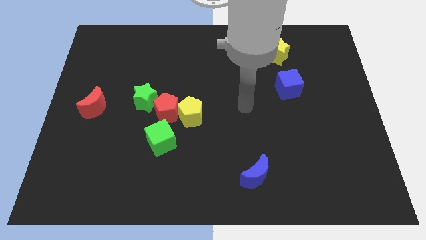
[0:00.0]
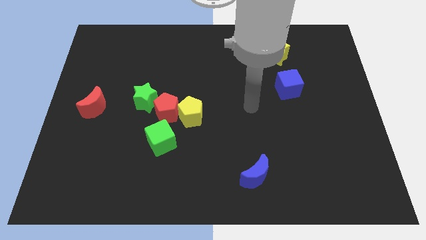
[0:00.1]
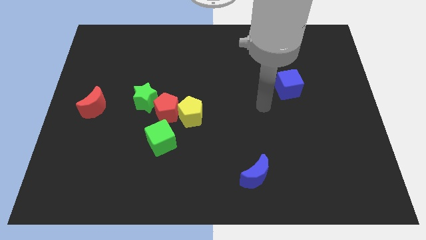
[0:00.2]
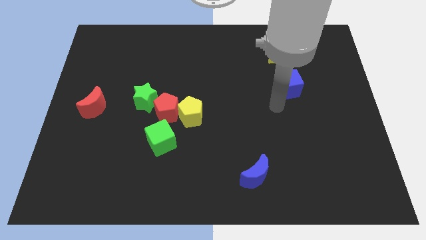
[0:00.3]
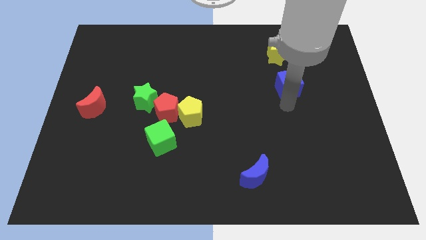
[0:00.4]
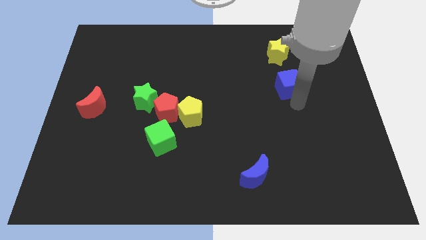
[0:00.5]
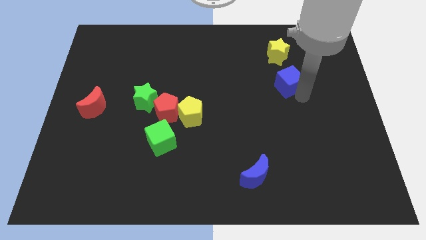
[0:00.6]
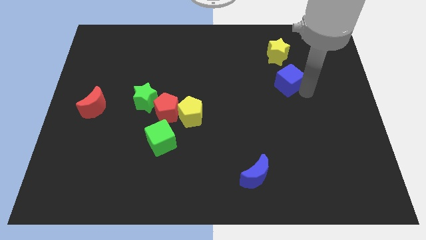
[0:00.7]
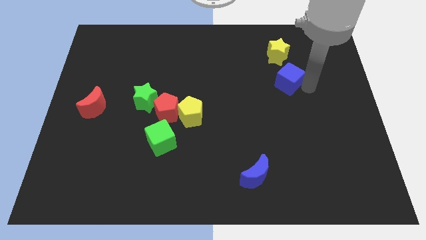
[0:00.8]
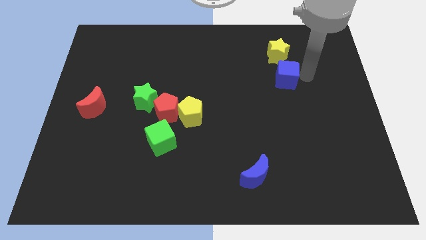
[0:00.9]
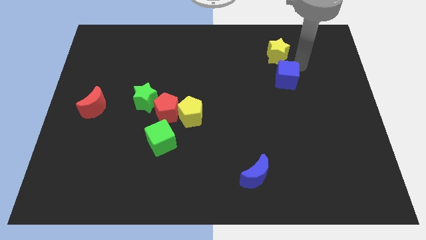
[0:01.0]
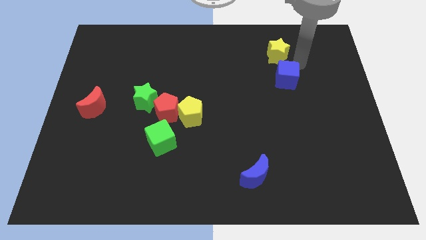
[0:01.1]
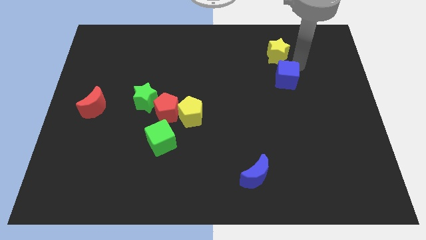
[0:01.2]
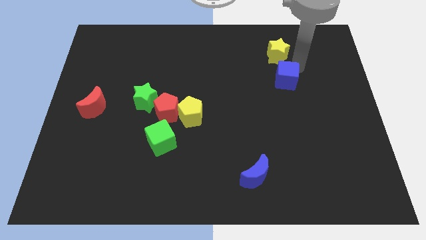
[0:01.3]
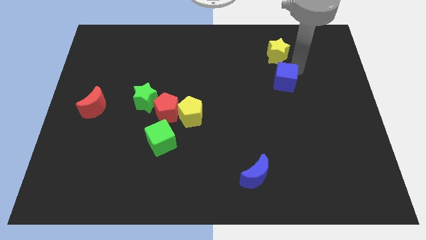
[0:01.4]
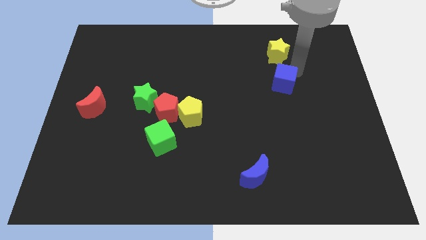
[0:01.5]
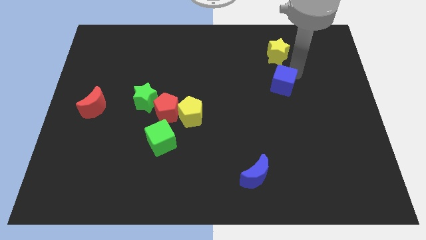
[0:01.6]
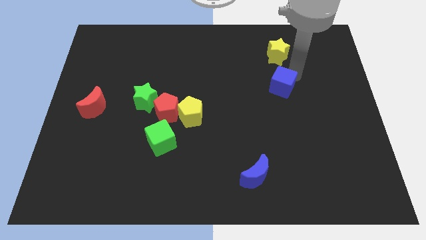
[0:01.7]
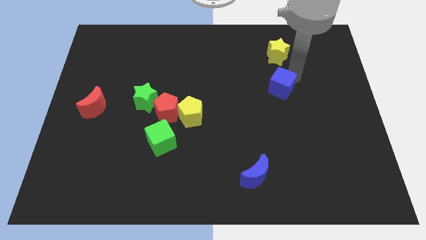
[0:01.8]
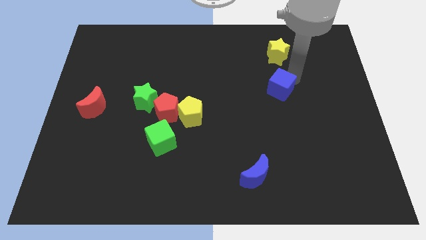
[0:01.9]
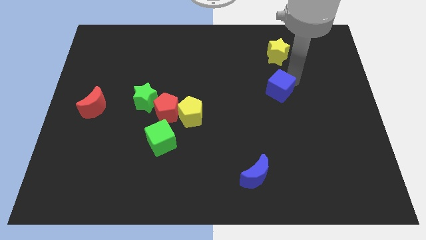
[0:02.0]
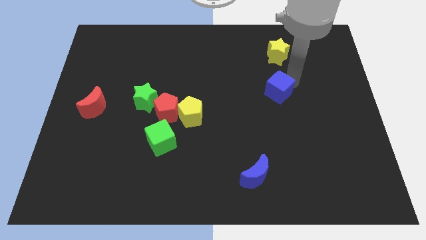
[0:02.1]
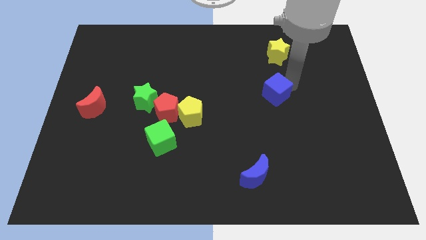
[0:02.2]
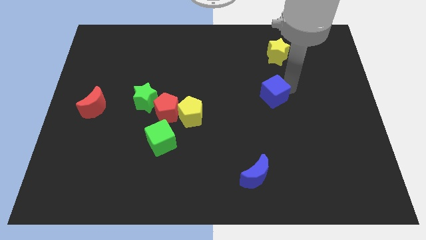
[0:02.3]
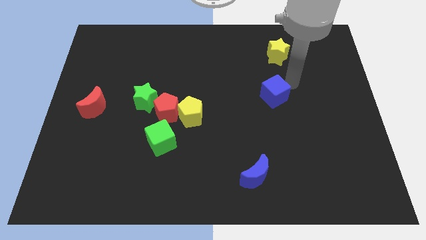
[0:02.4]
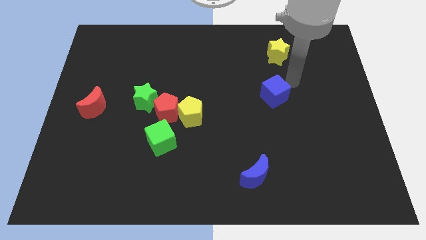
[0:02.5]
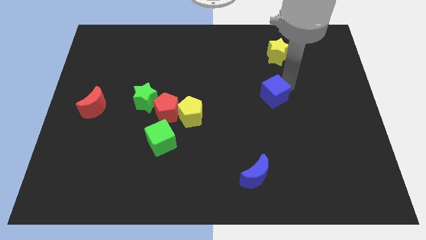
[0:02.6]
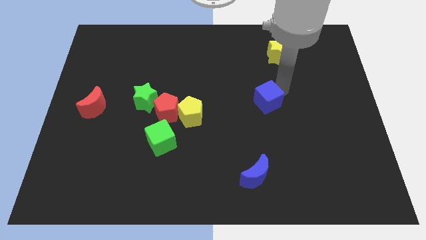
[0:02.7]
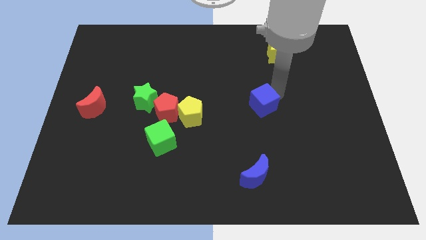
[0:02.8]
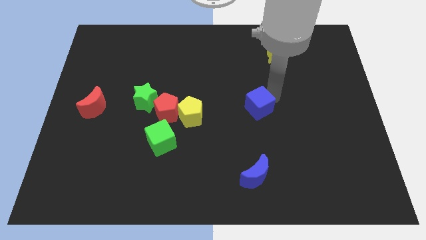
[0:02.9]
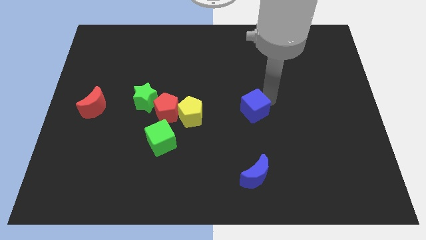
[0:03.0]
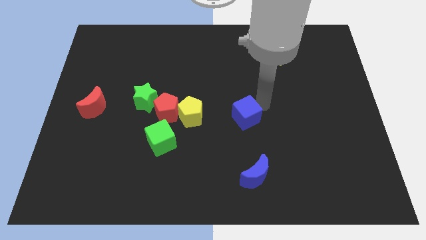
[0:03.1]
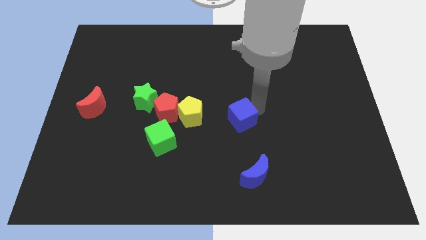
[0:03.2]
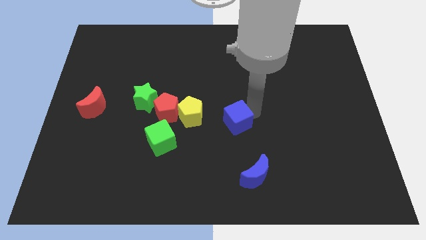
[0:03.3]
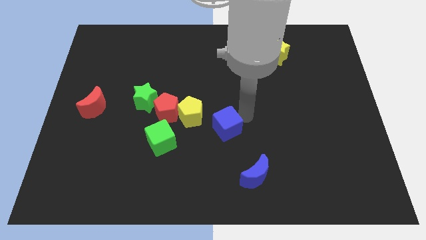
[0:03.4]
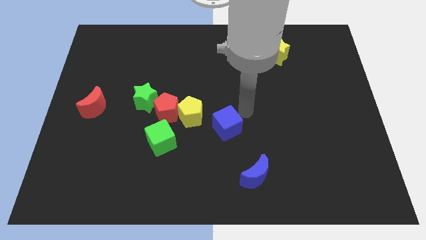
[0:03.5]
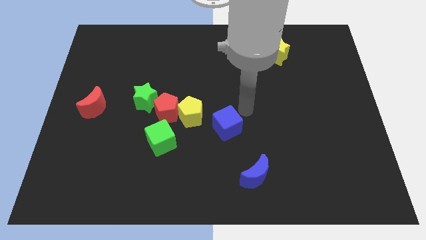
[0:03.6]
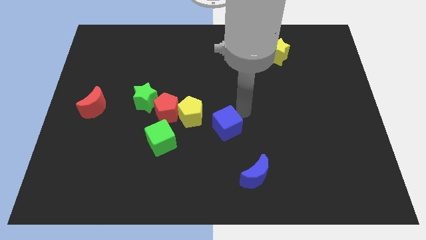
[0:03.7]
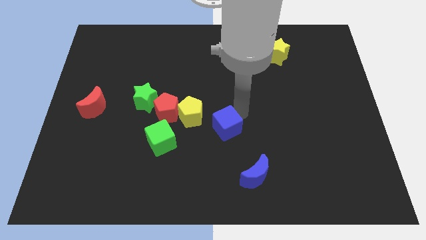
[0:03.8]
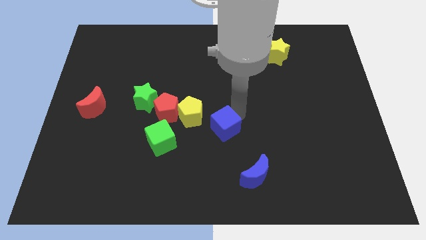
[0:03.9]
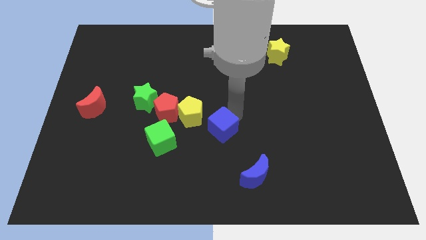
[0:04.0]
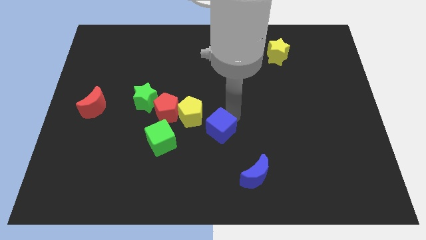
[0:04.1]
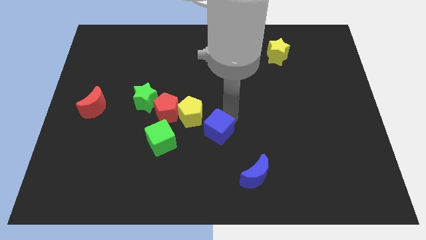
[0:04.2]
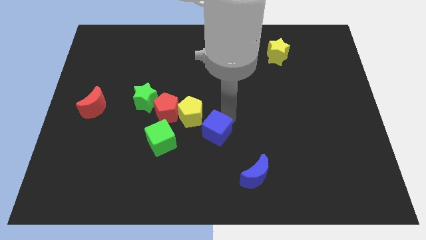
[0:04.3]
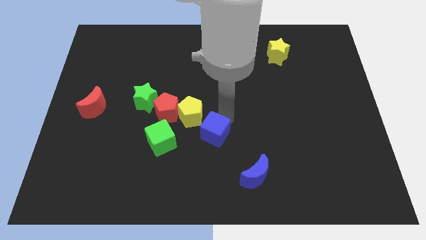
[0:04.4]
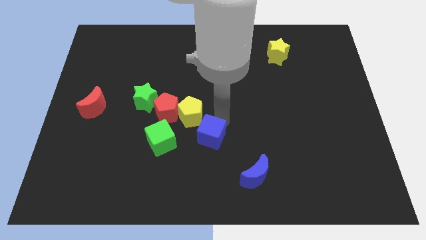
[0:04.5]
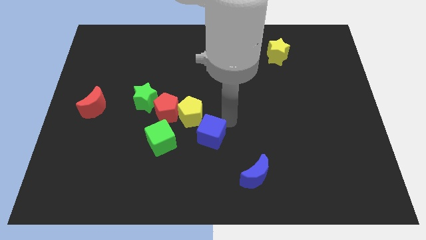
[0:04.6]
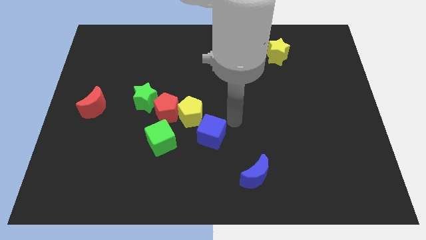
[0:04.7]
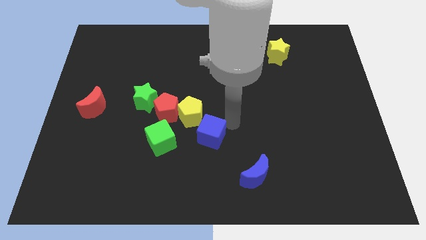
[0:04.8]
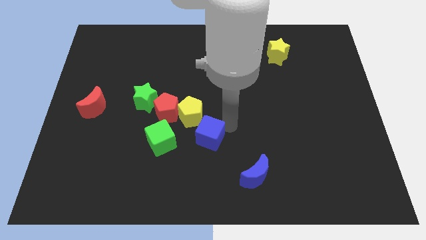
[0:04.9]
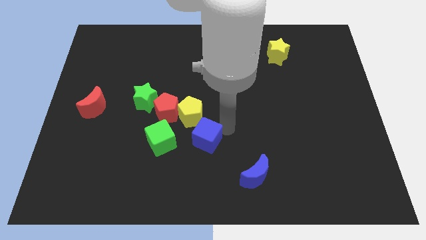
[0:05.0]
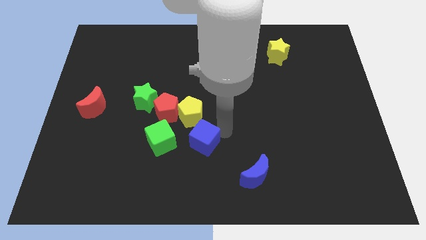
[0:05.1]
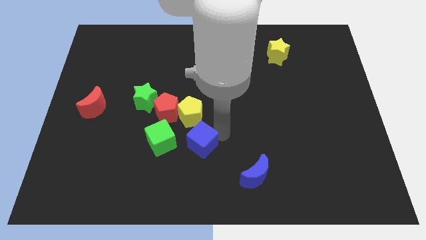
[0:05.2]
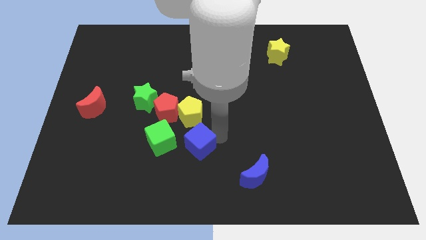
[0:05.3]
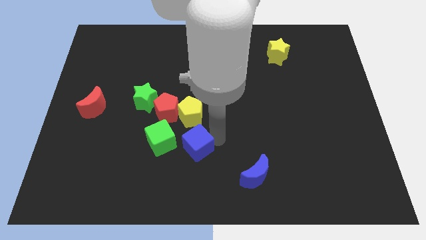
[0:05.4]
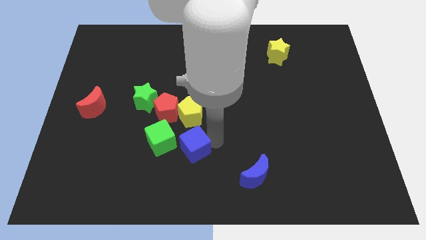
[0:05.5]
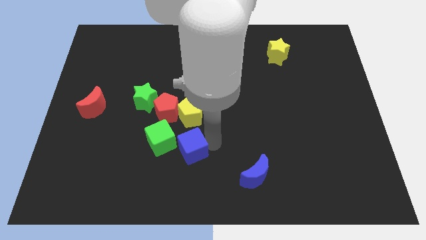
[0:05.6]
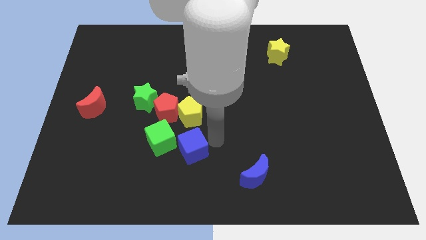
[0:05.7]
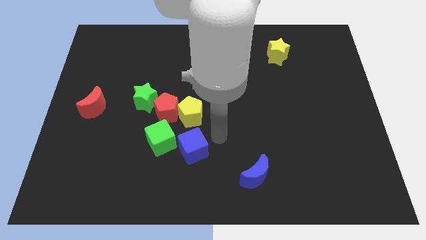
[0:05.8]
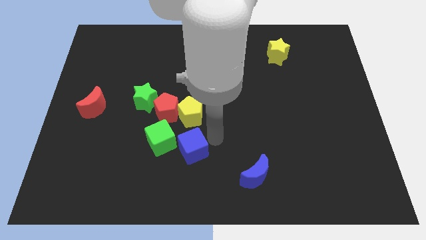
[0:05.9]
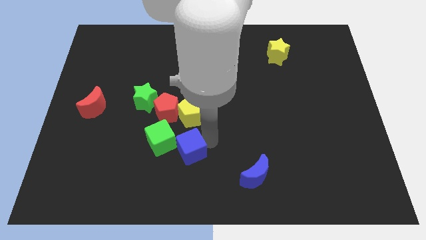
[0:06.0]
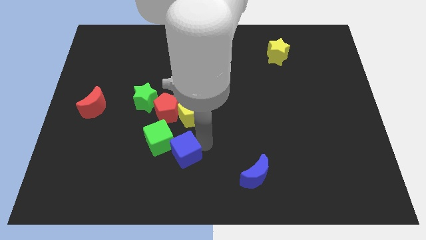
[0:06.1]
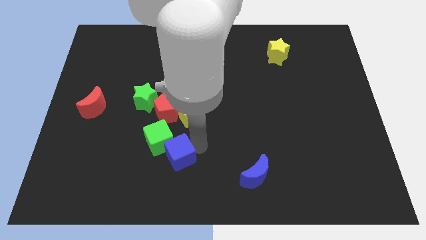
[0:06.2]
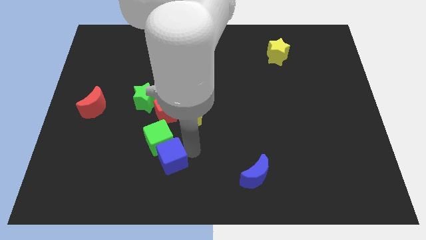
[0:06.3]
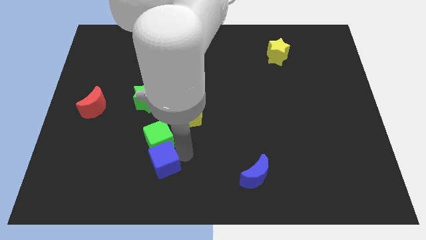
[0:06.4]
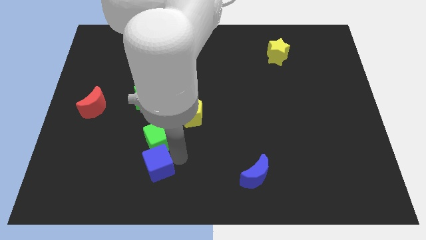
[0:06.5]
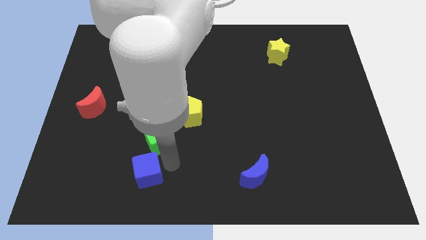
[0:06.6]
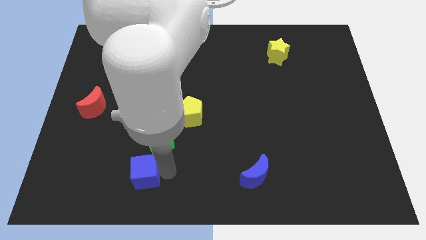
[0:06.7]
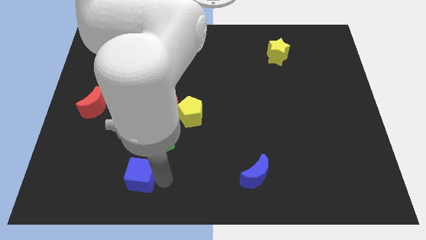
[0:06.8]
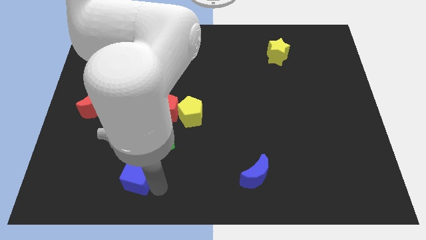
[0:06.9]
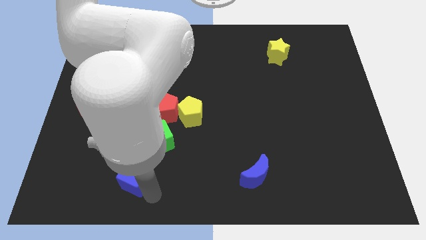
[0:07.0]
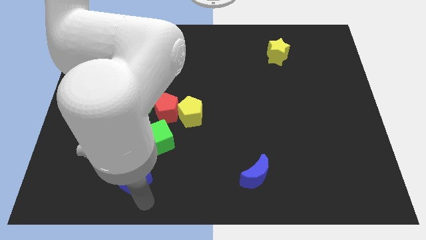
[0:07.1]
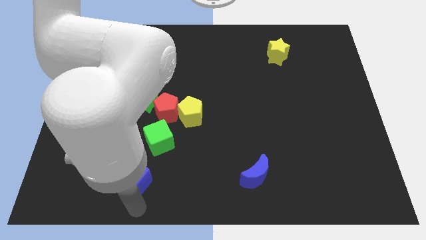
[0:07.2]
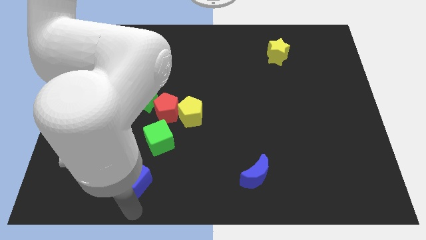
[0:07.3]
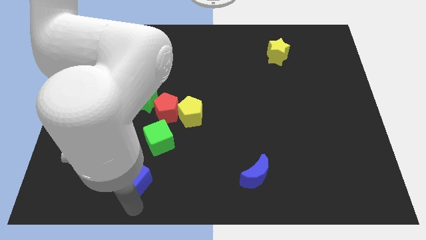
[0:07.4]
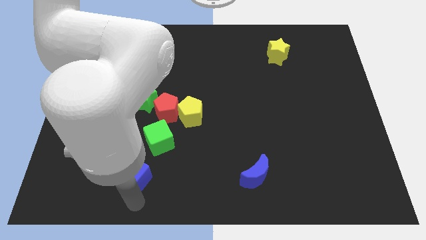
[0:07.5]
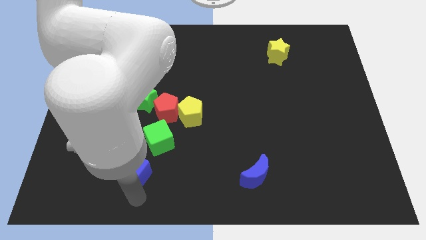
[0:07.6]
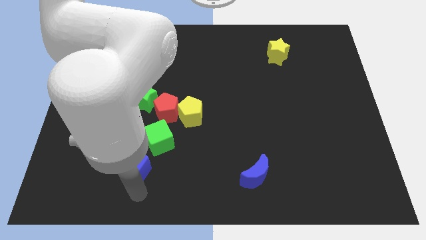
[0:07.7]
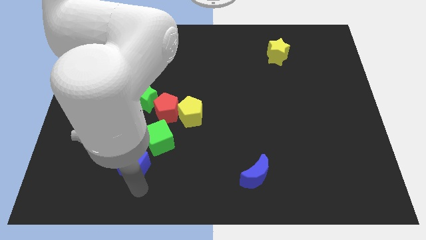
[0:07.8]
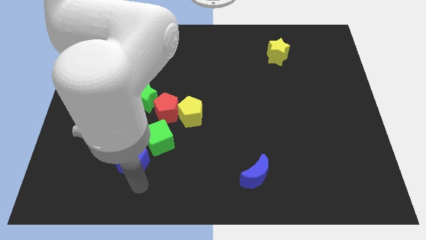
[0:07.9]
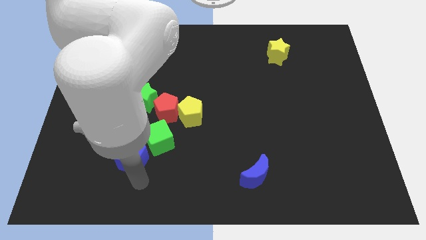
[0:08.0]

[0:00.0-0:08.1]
push the blue cube below the green star
